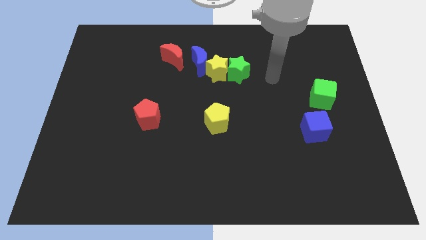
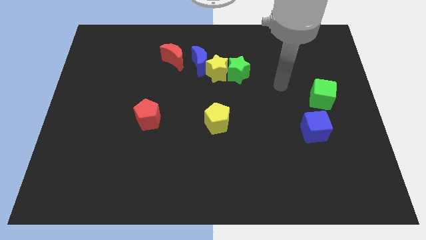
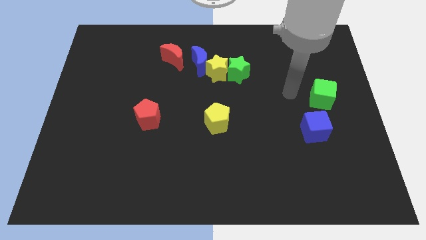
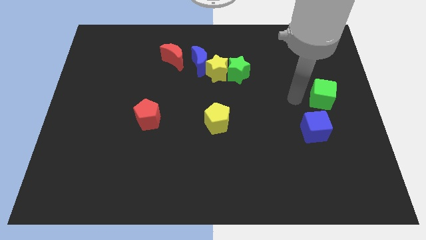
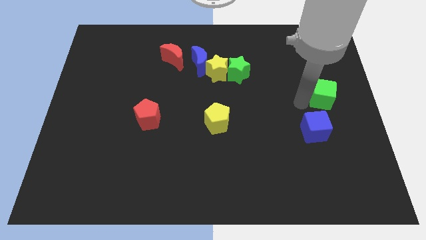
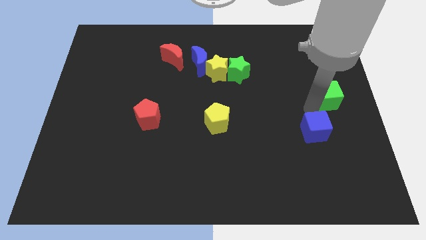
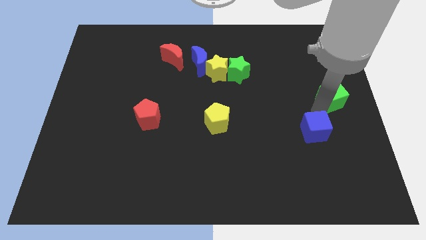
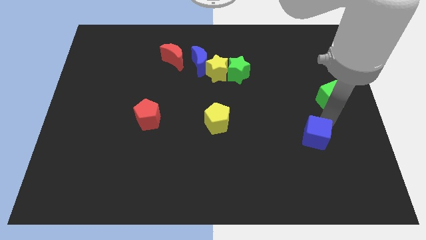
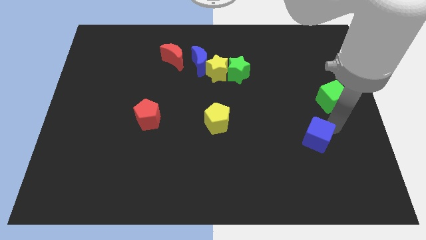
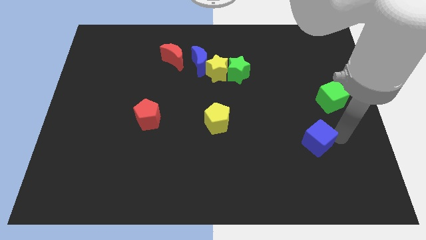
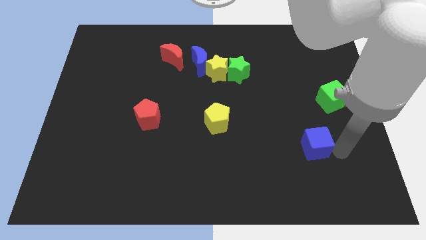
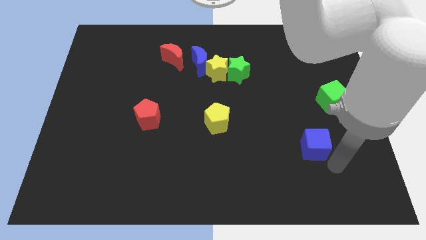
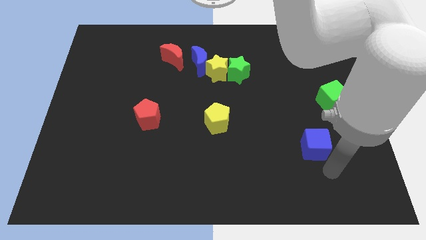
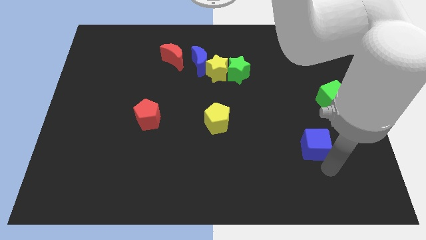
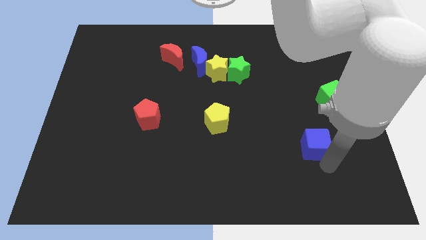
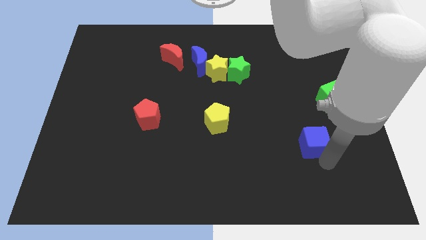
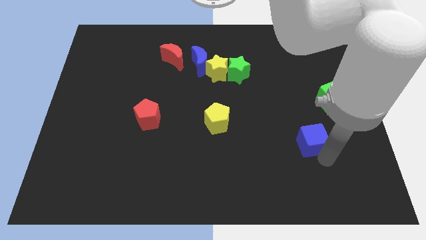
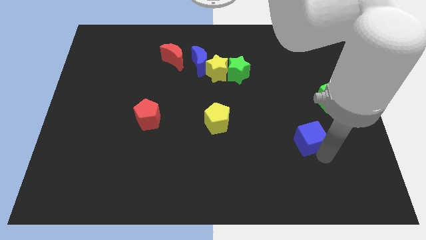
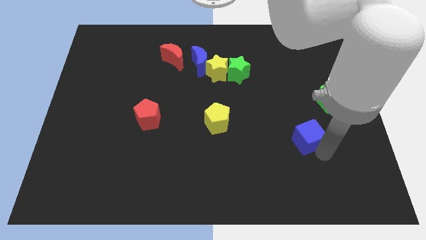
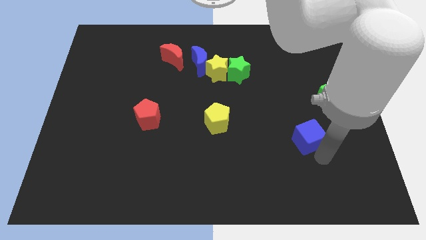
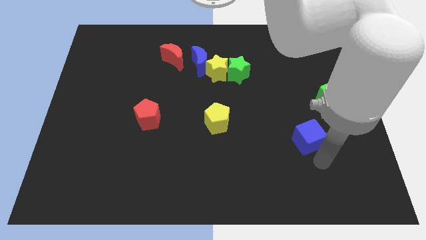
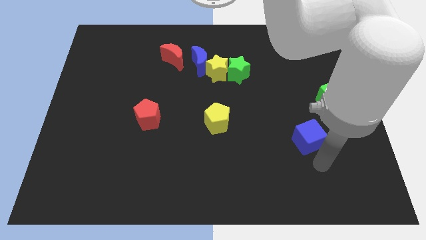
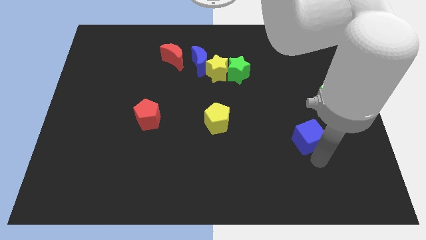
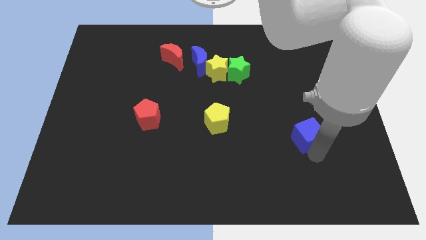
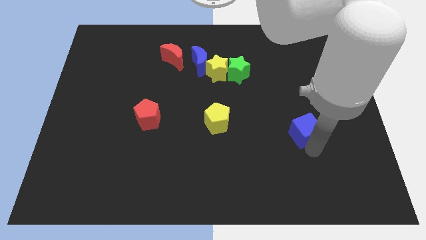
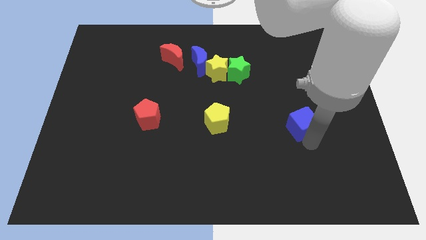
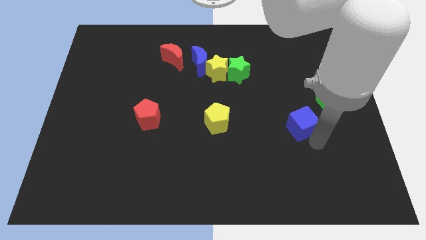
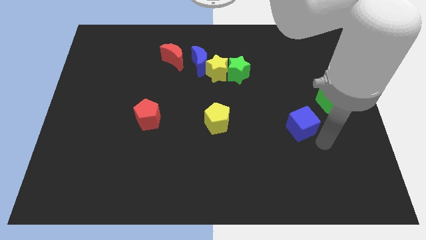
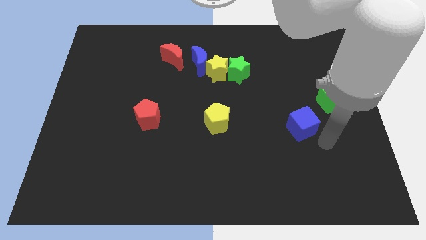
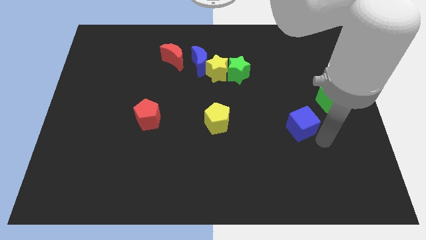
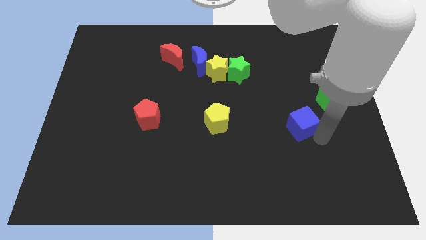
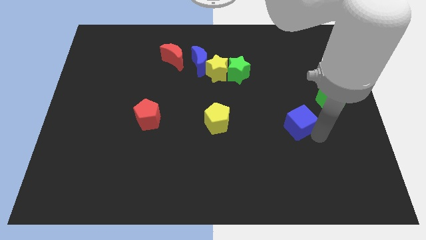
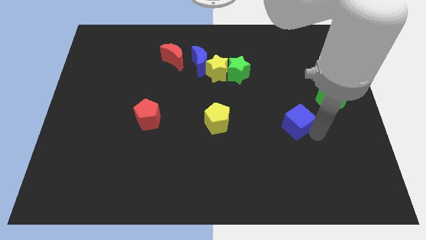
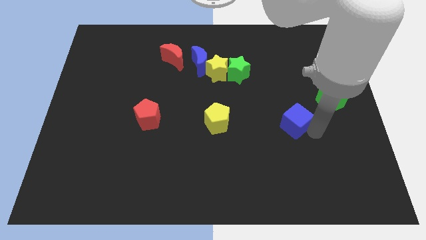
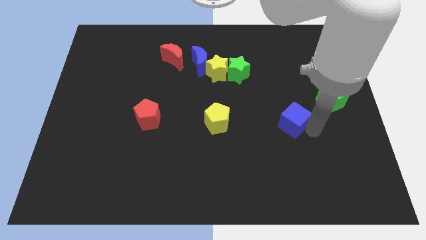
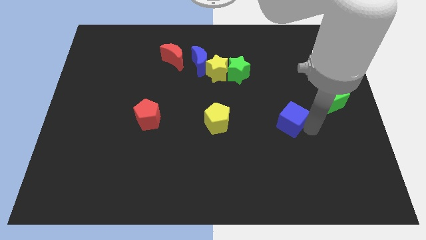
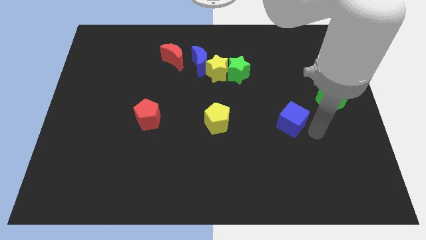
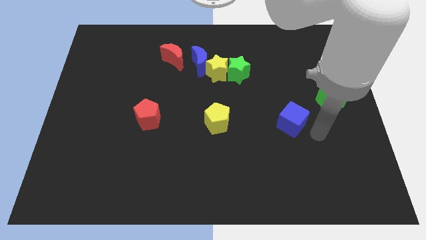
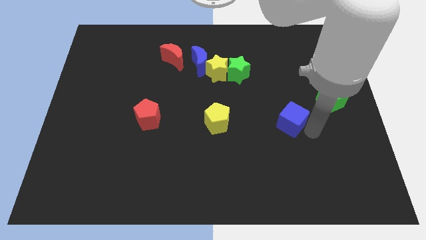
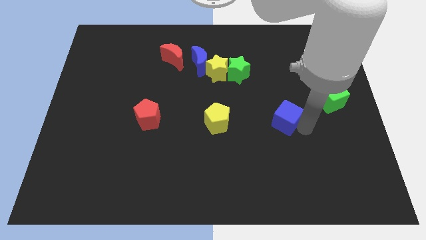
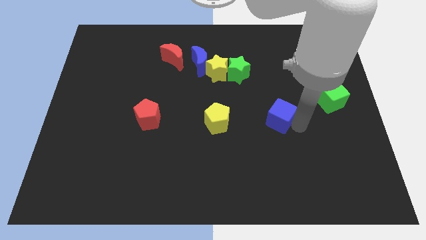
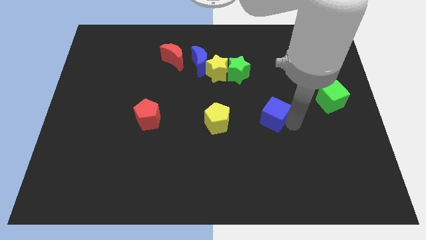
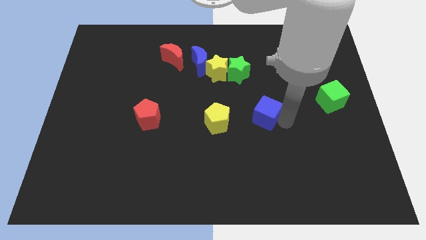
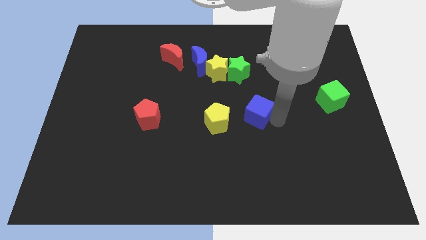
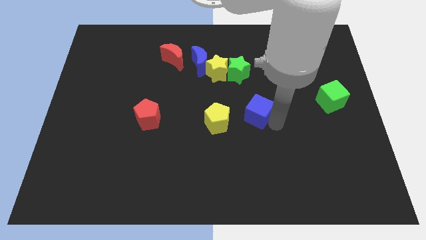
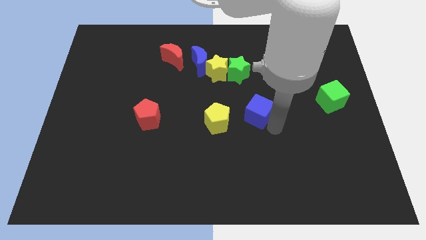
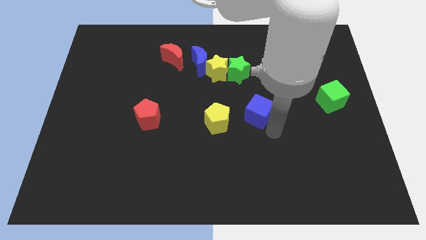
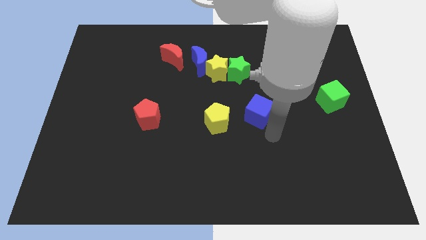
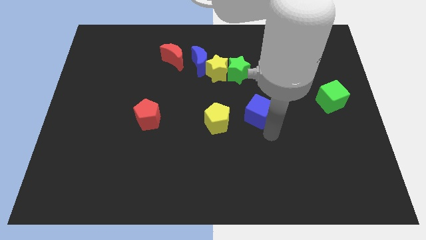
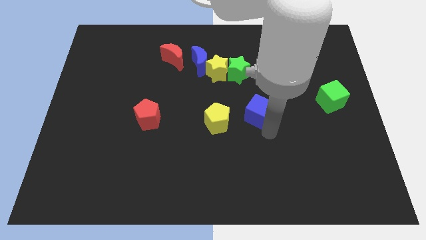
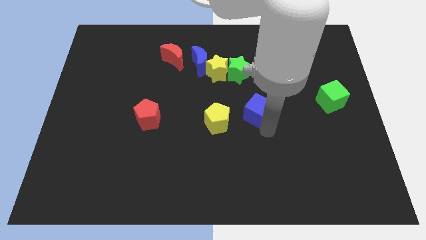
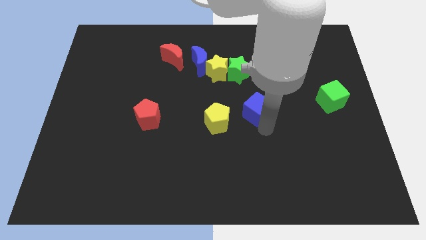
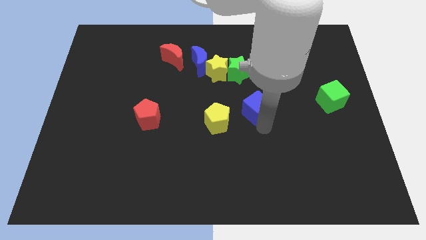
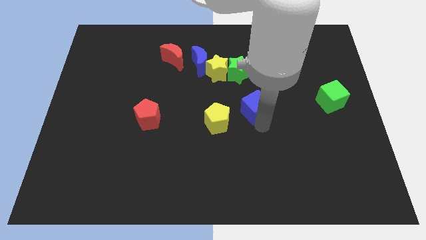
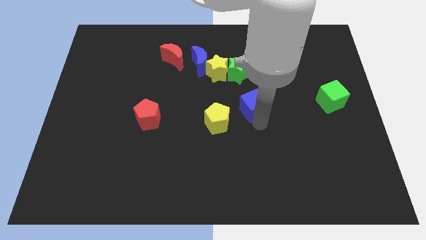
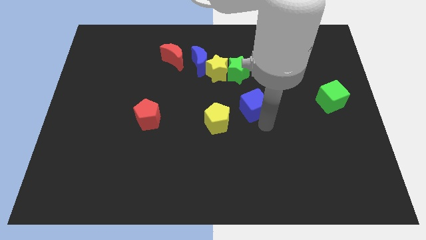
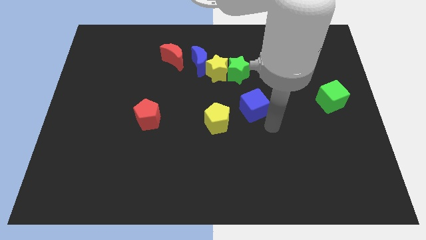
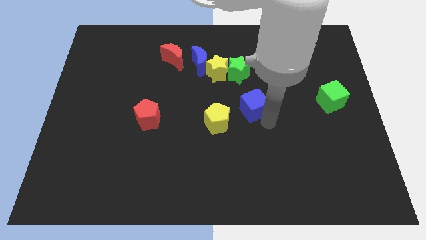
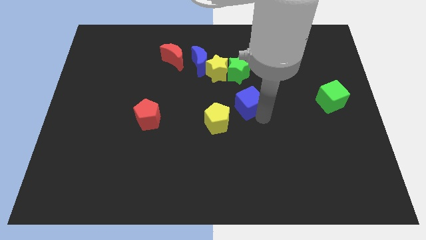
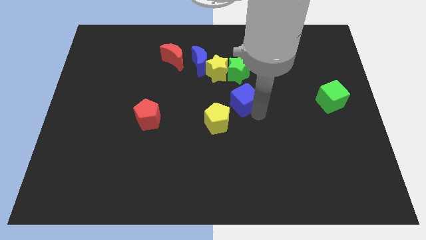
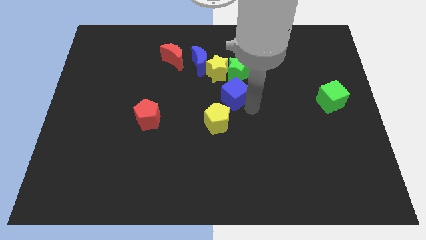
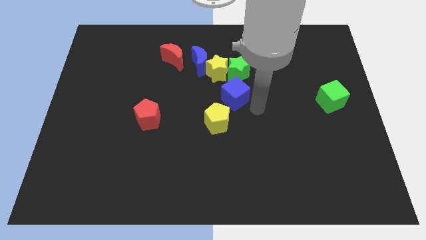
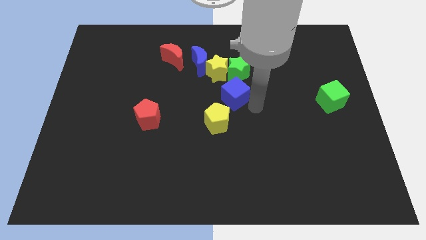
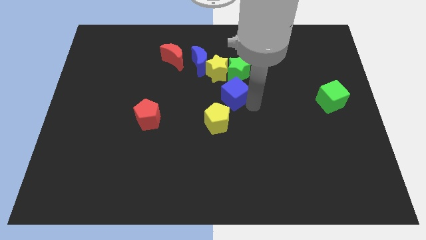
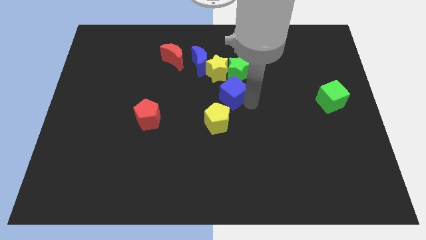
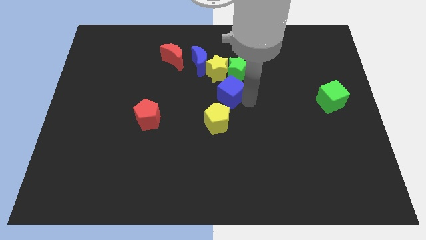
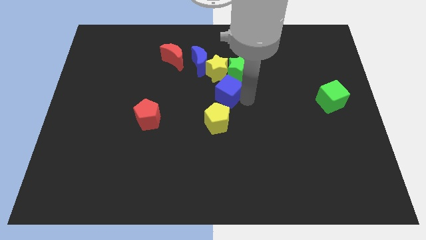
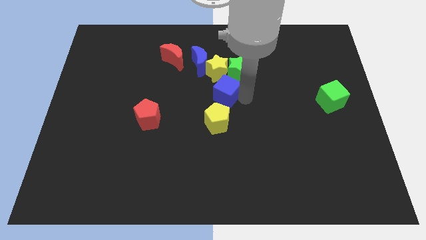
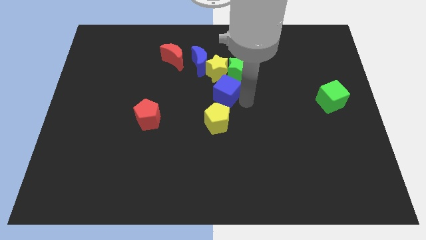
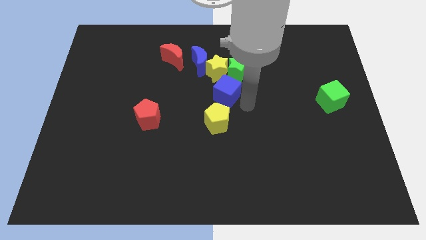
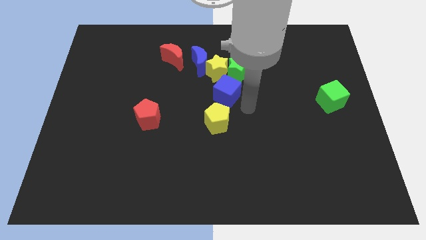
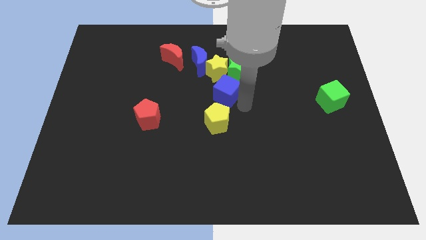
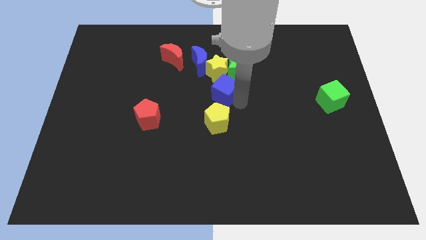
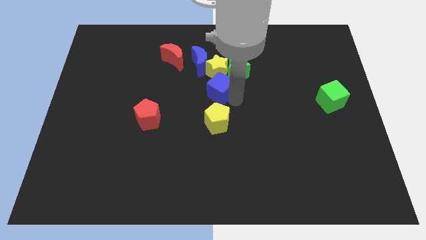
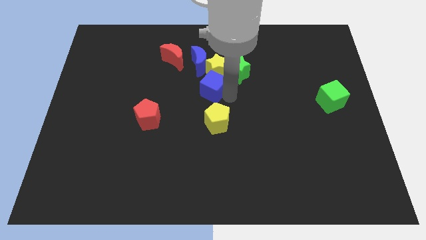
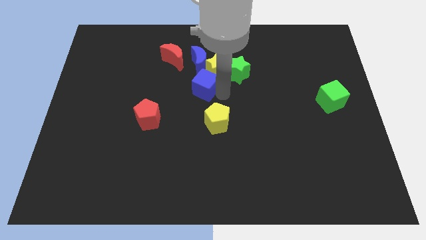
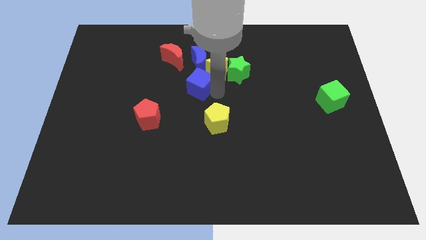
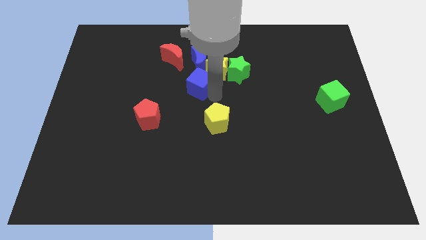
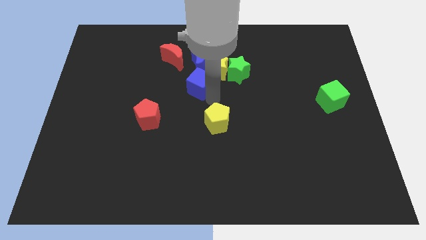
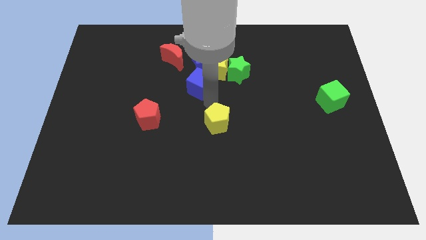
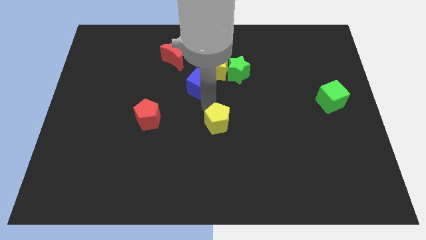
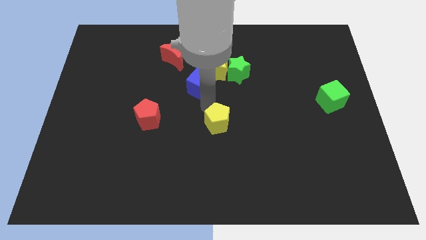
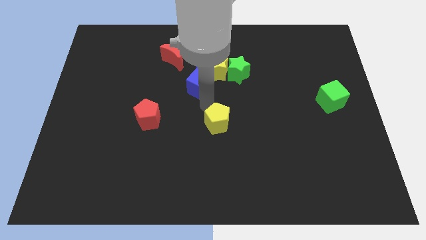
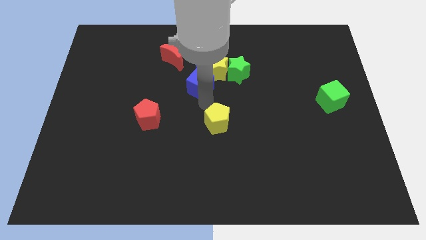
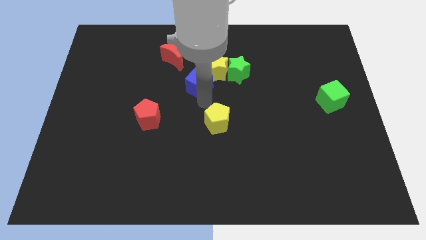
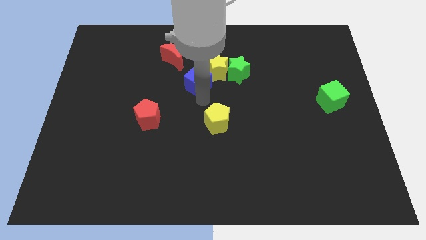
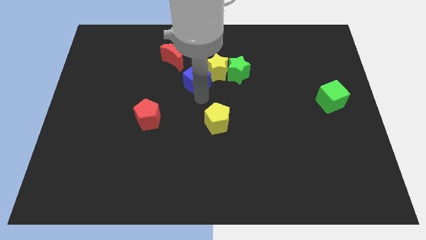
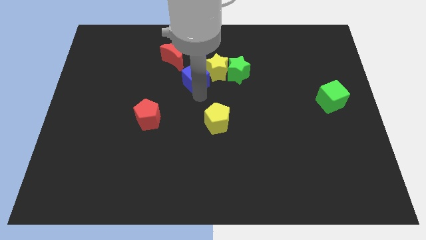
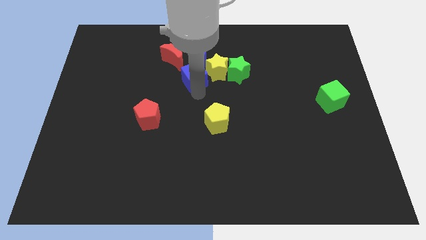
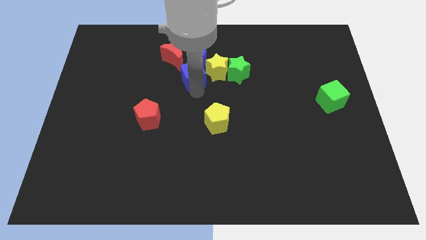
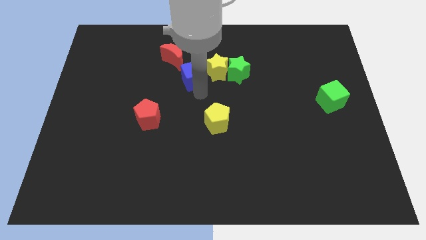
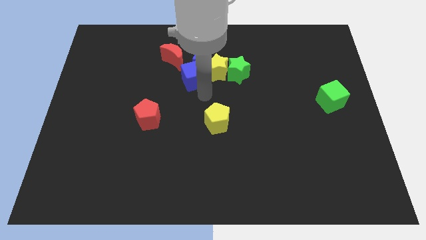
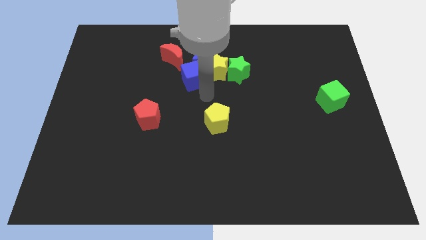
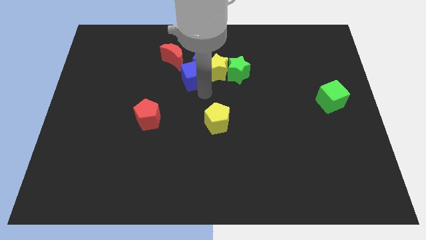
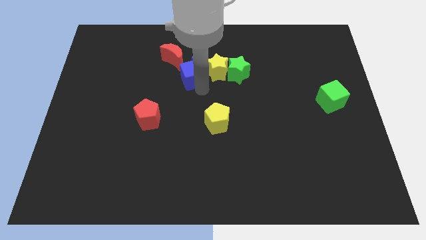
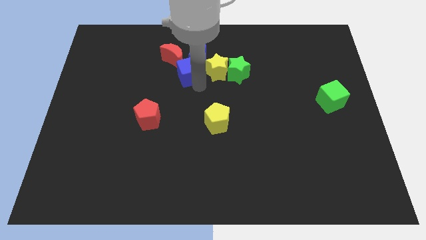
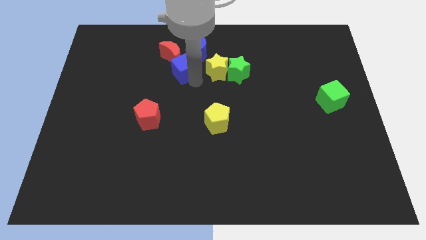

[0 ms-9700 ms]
move the blue cube next to the red moon
